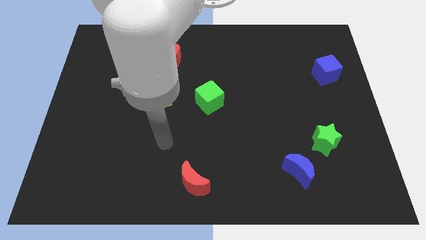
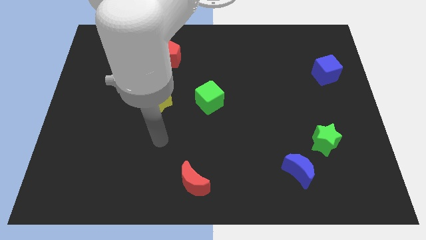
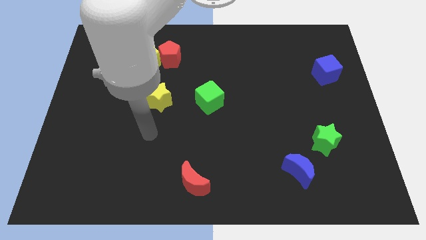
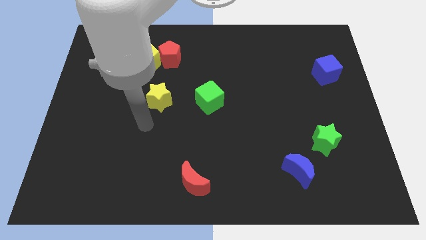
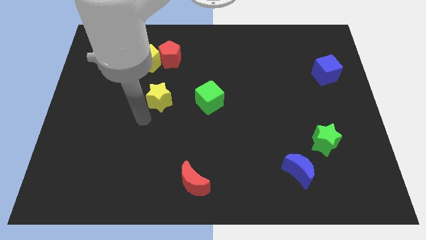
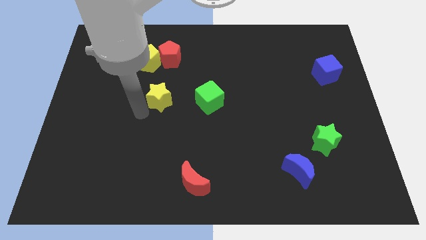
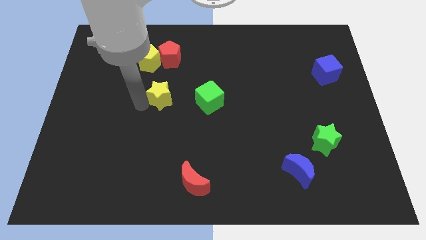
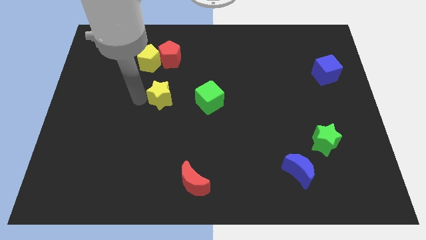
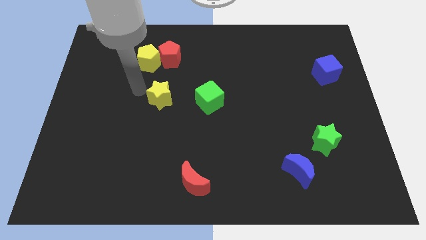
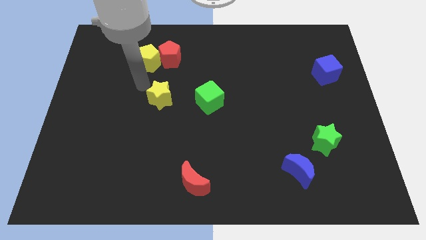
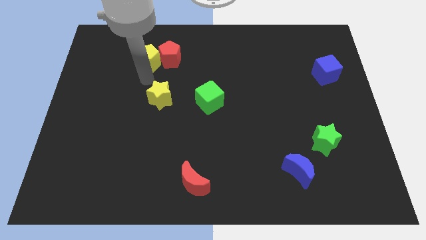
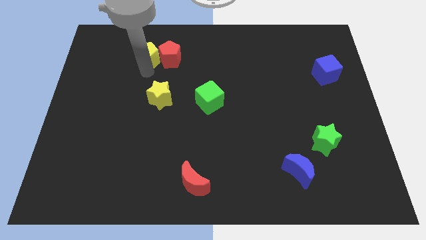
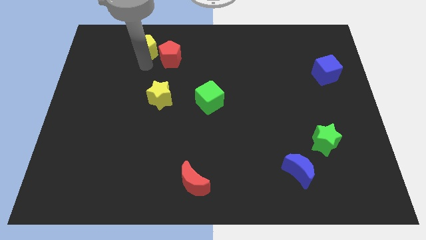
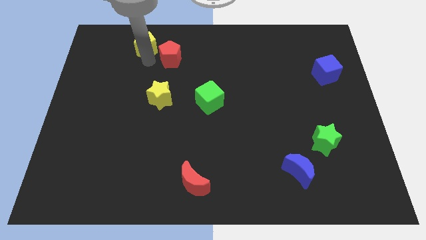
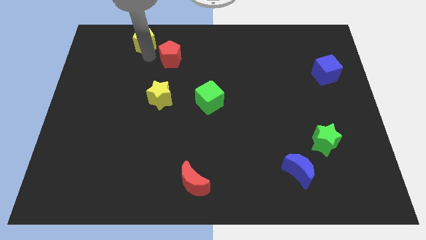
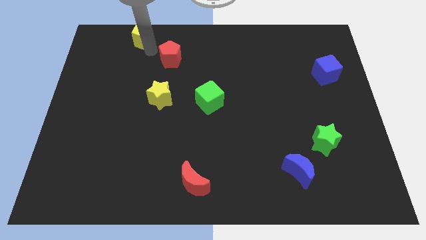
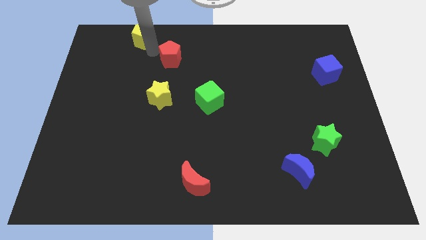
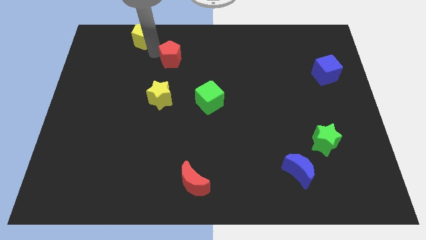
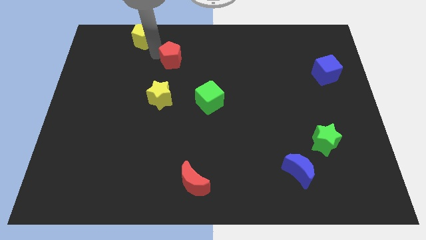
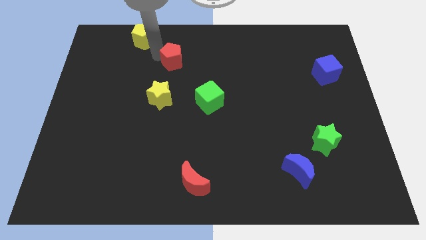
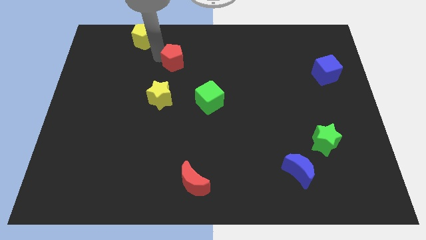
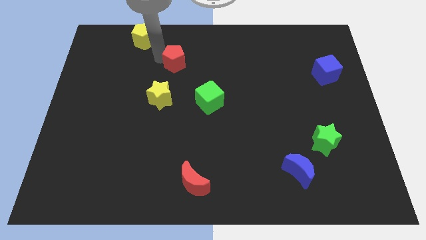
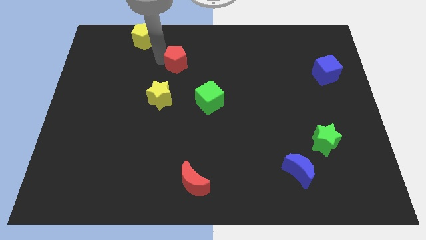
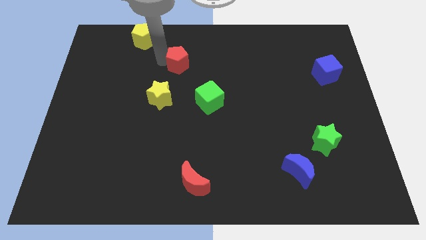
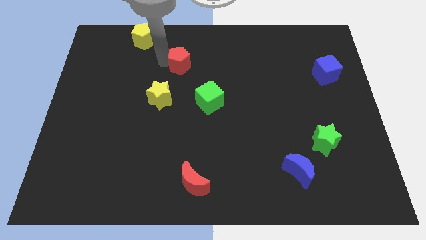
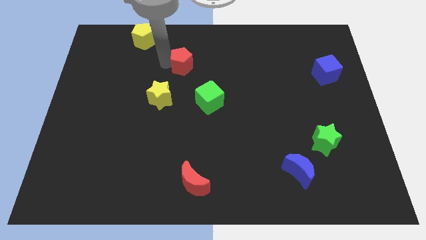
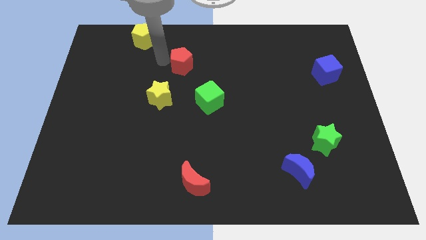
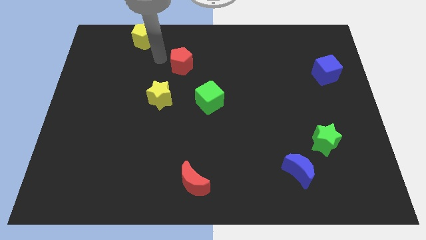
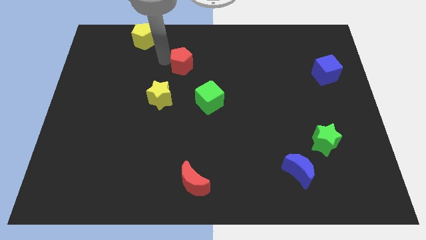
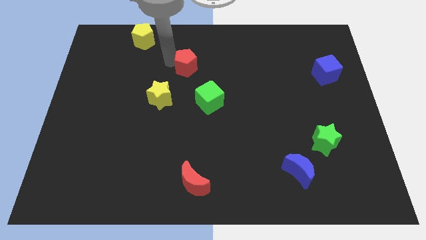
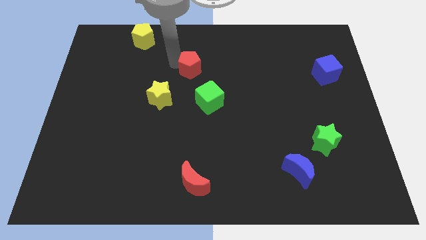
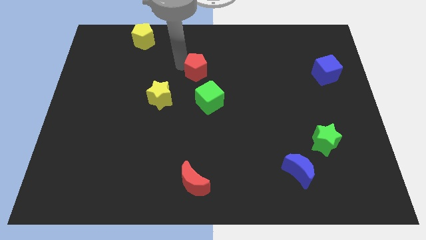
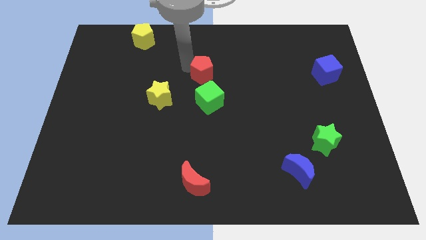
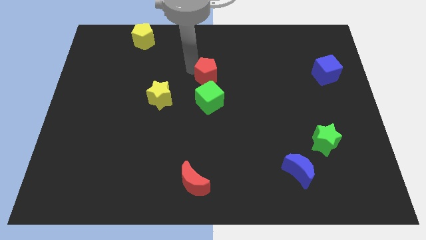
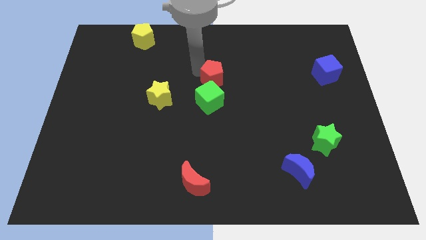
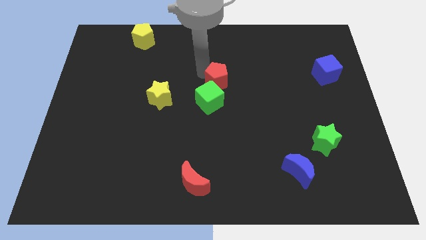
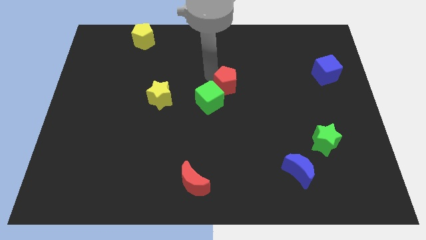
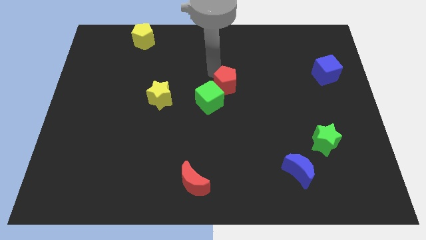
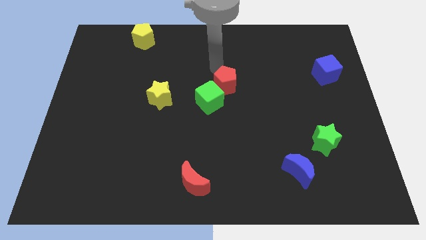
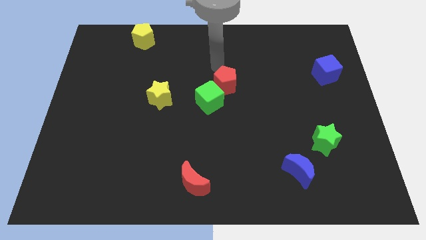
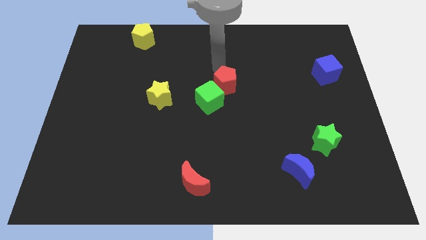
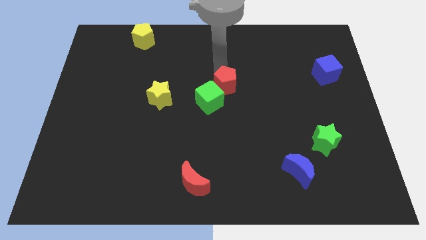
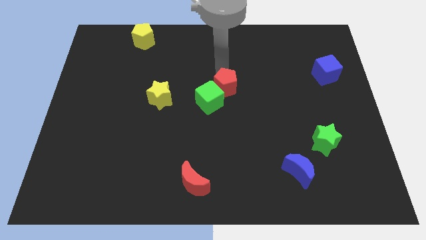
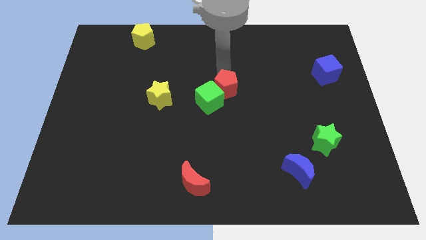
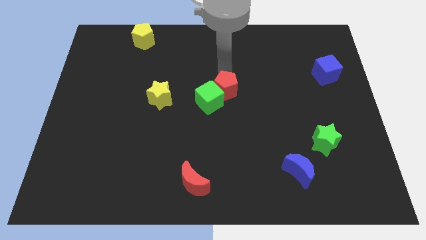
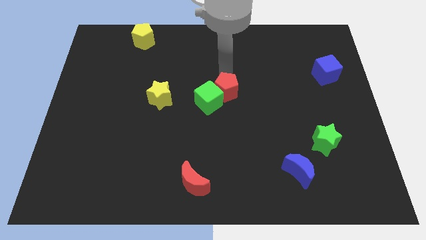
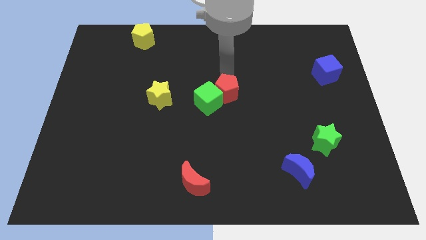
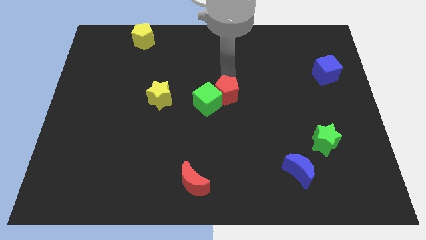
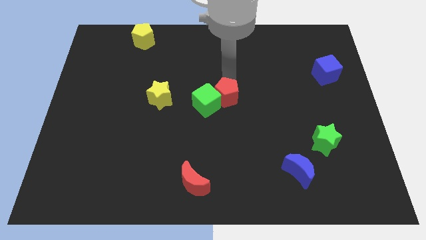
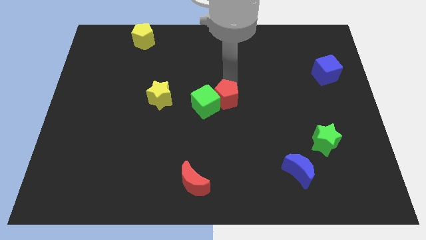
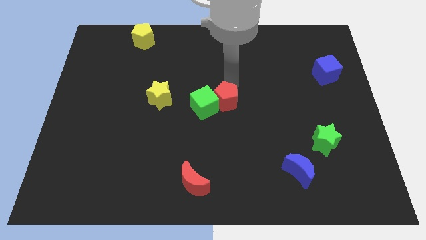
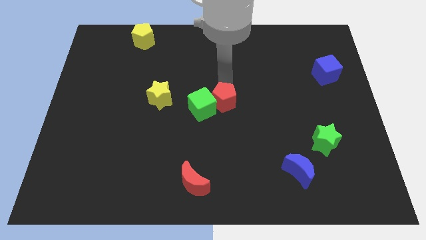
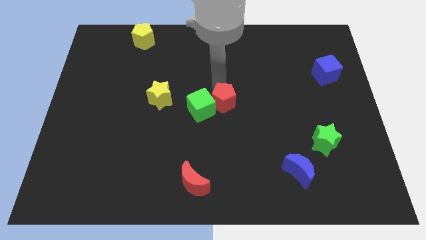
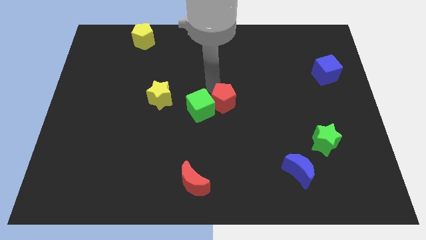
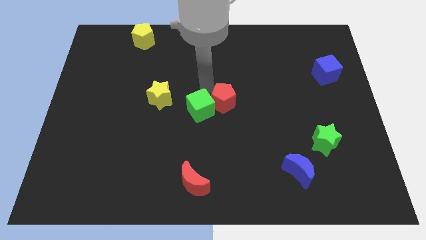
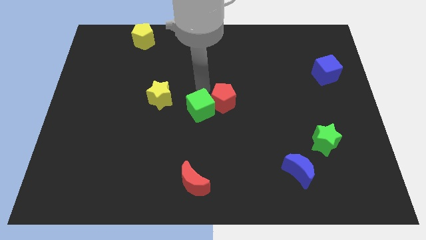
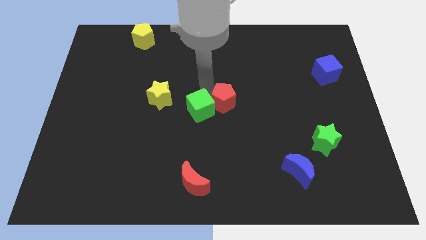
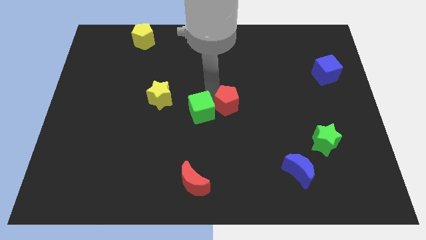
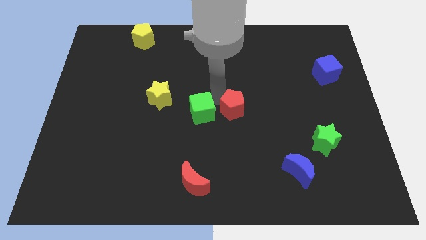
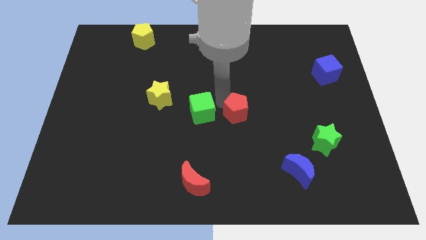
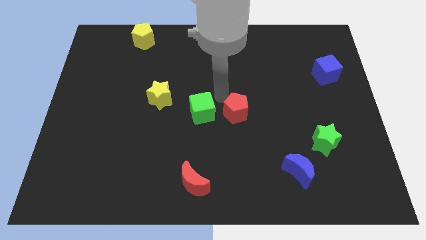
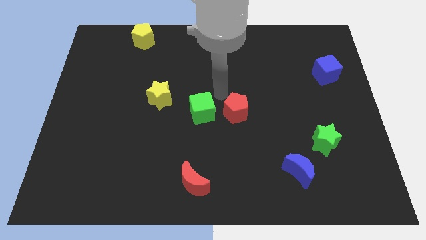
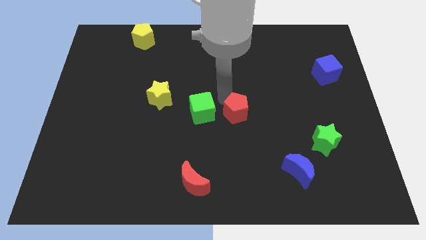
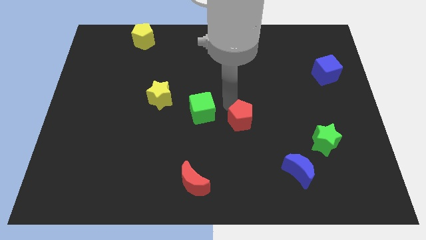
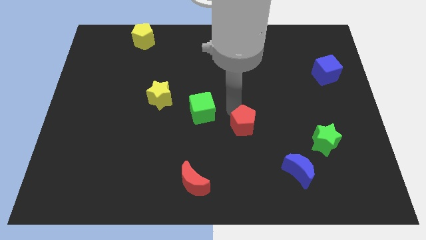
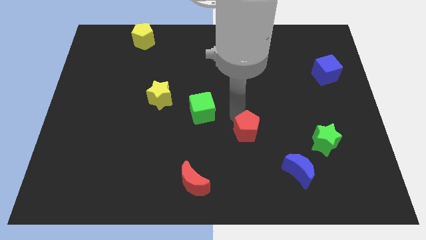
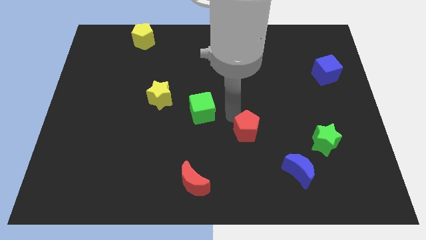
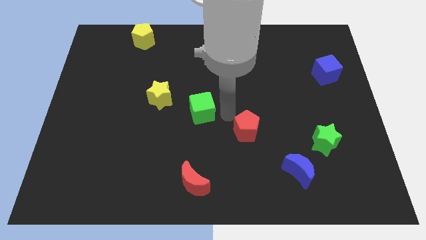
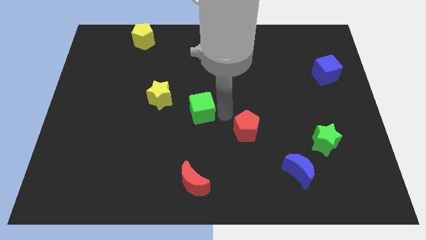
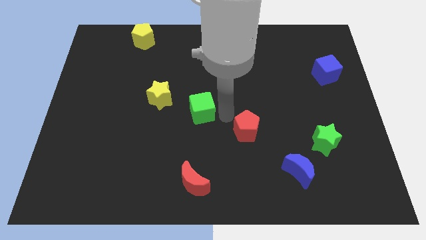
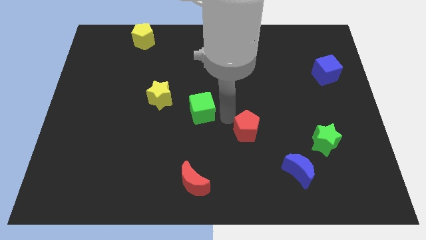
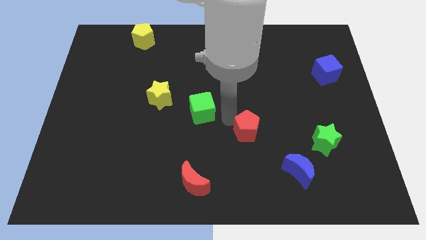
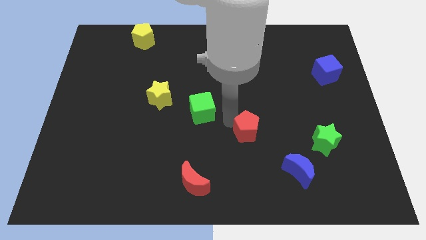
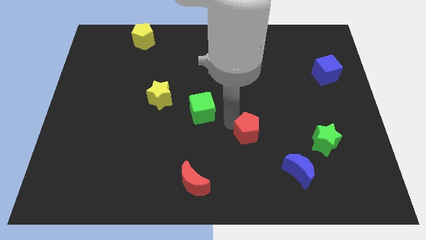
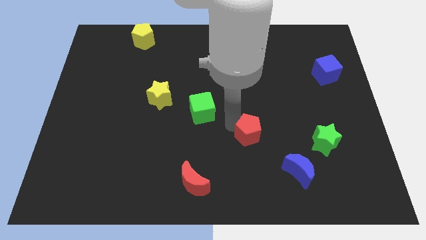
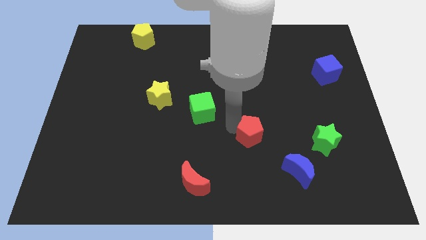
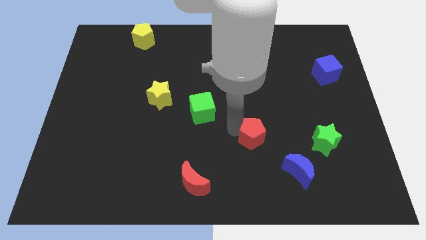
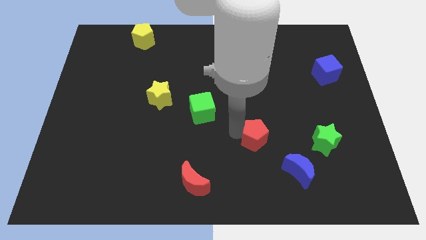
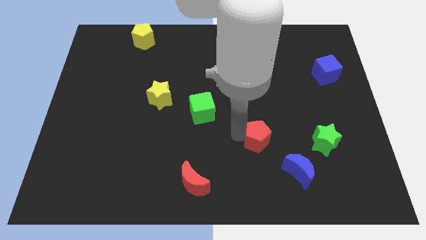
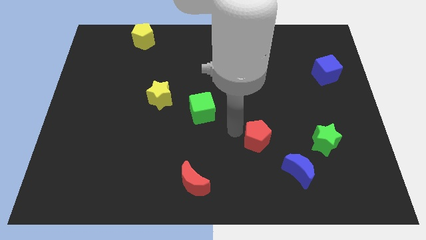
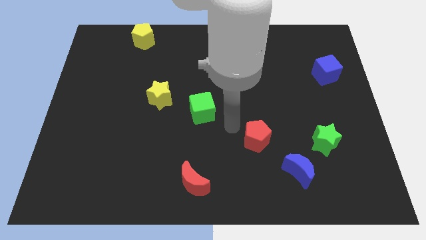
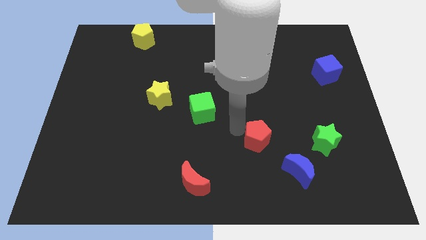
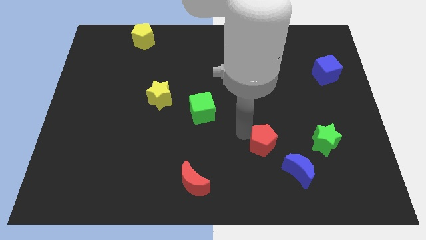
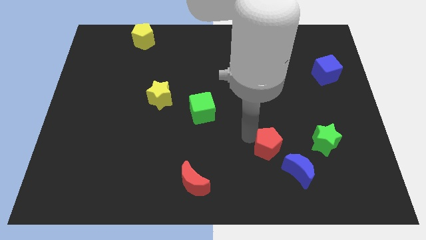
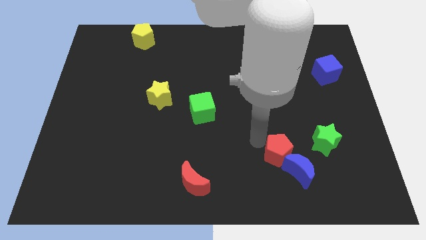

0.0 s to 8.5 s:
move the red pentagon close to the blue moon
